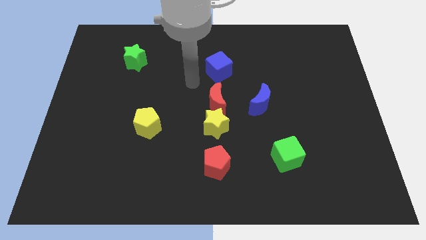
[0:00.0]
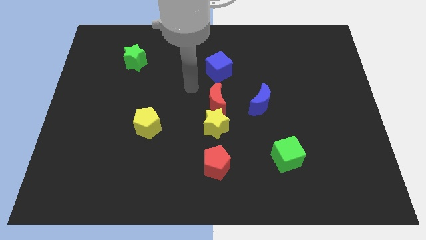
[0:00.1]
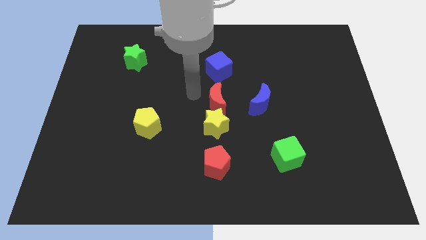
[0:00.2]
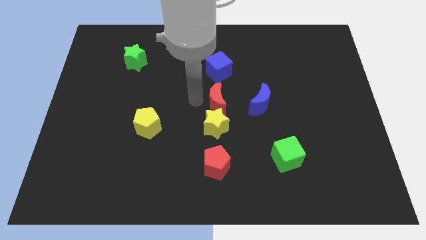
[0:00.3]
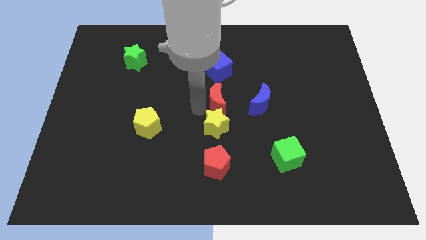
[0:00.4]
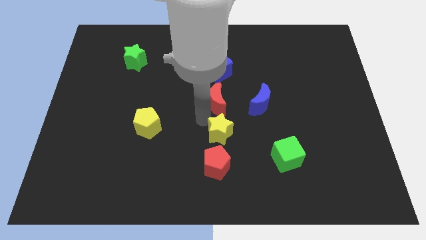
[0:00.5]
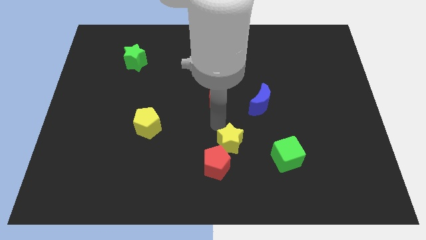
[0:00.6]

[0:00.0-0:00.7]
move the red moon away from the yellow star

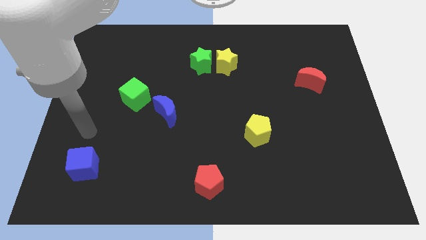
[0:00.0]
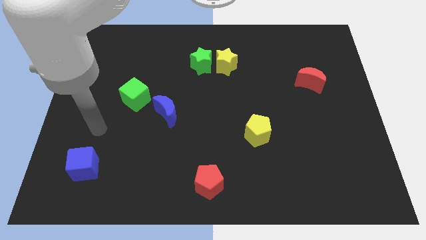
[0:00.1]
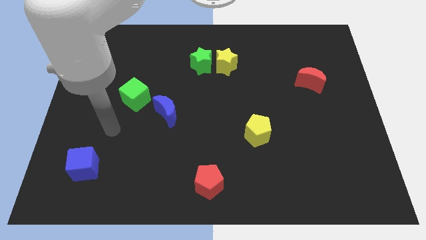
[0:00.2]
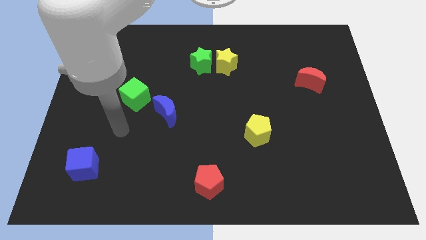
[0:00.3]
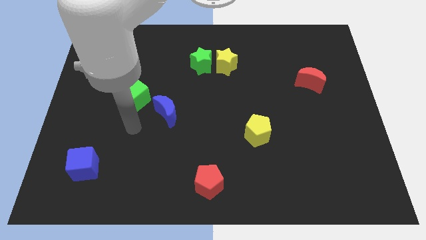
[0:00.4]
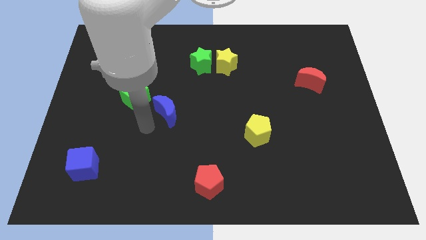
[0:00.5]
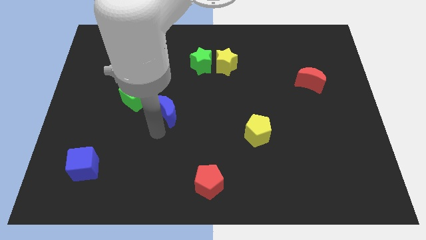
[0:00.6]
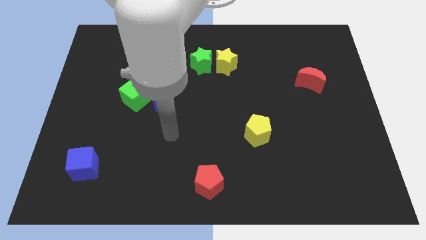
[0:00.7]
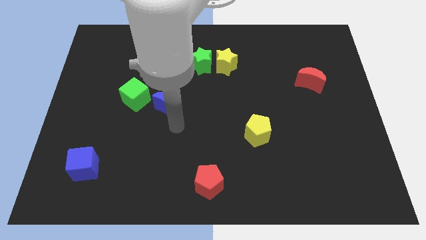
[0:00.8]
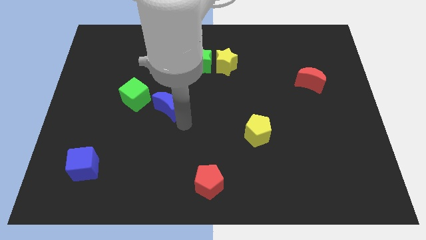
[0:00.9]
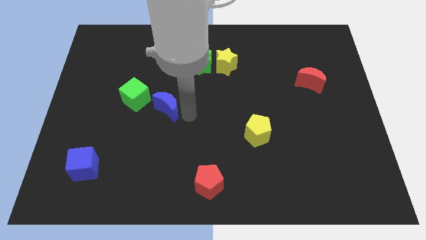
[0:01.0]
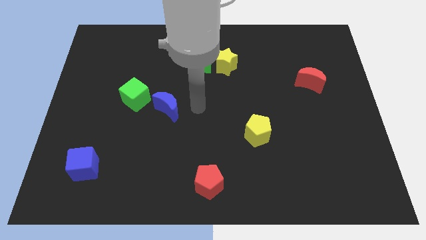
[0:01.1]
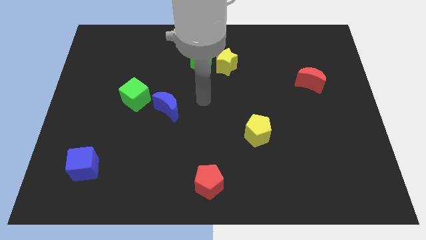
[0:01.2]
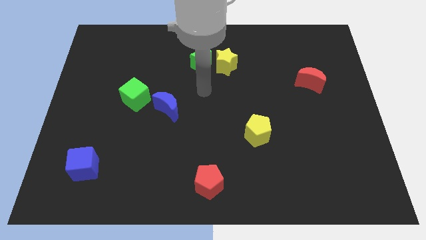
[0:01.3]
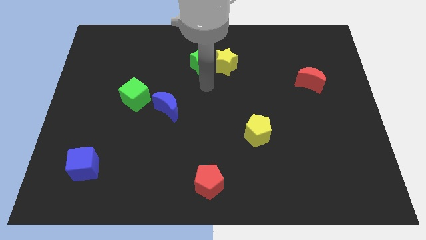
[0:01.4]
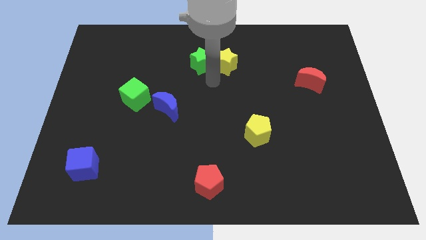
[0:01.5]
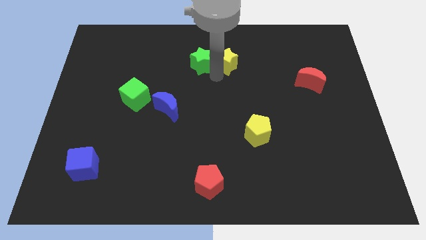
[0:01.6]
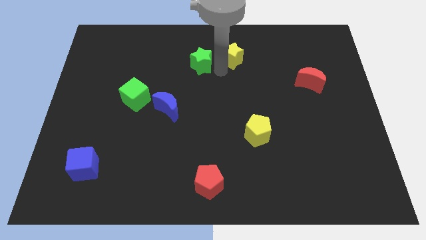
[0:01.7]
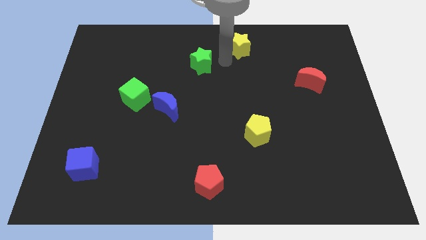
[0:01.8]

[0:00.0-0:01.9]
pull the green star apart from the yellow star

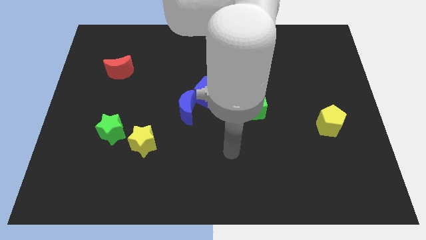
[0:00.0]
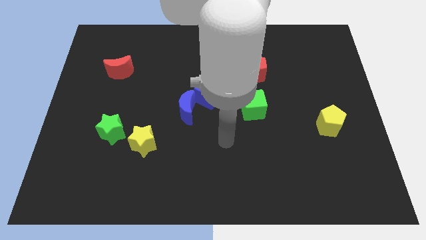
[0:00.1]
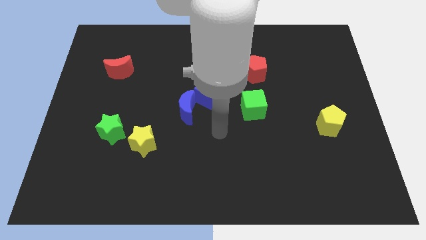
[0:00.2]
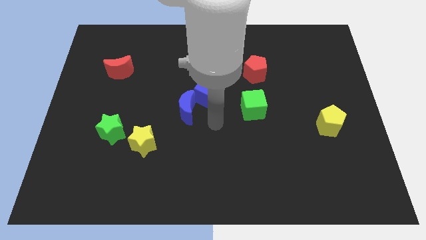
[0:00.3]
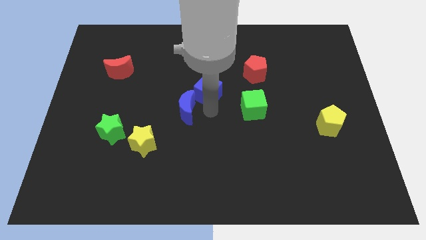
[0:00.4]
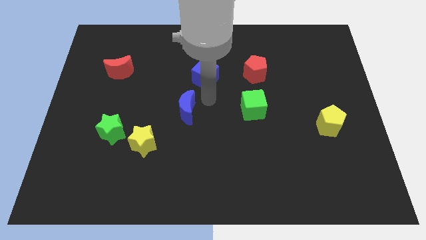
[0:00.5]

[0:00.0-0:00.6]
move the blue moon away from the blue cube

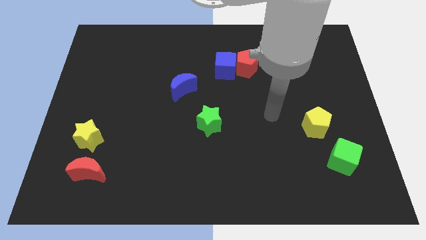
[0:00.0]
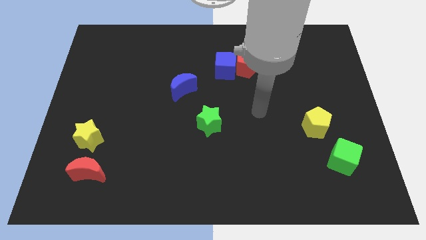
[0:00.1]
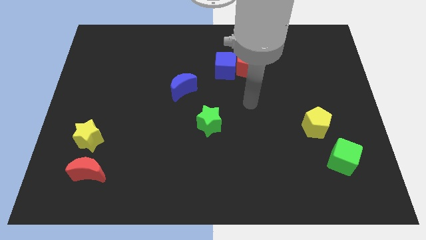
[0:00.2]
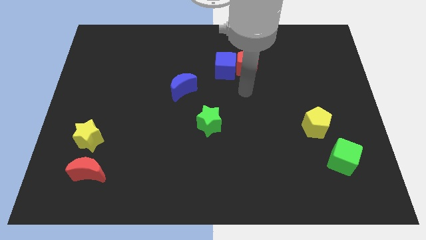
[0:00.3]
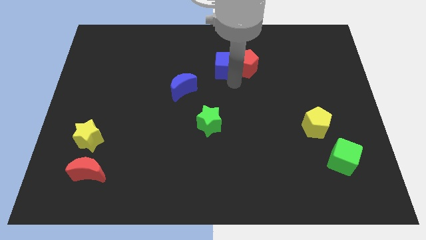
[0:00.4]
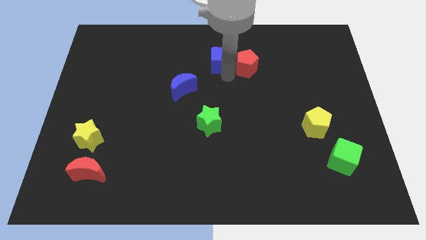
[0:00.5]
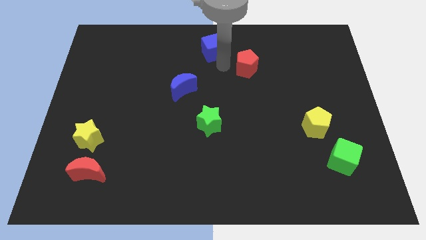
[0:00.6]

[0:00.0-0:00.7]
move the red pentagon away from the blue cube

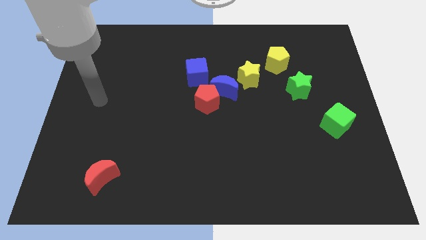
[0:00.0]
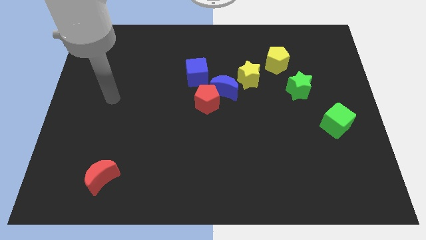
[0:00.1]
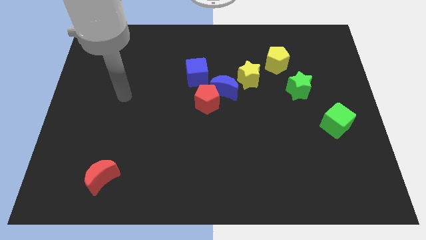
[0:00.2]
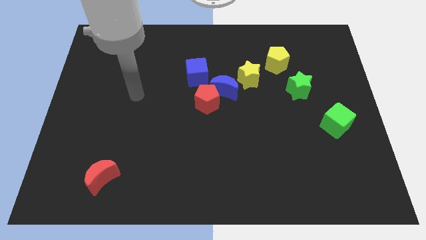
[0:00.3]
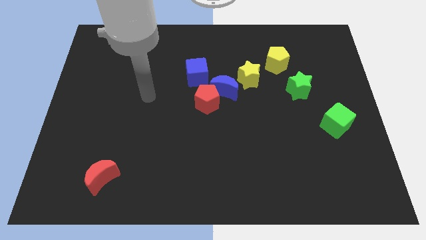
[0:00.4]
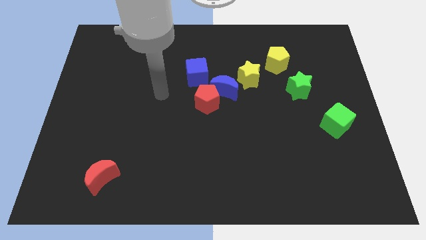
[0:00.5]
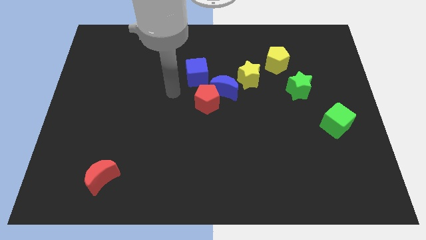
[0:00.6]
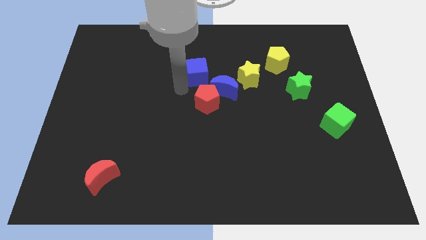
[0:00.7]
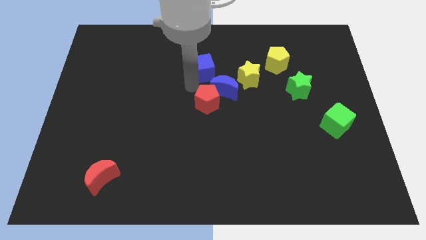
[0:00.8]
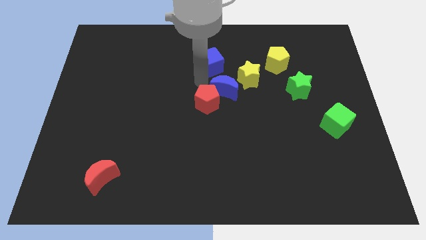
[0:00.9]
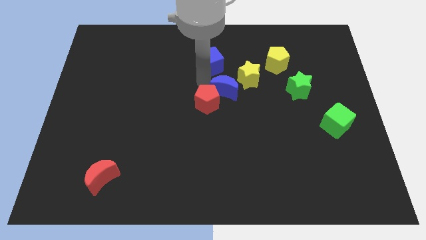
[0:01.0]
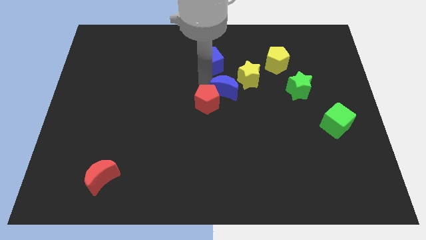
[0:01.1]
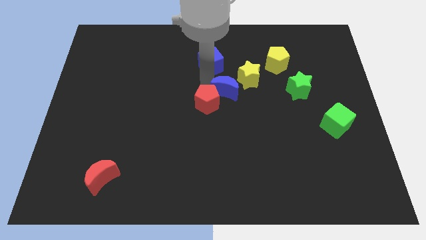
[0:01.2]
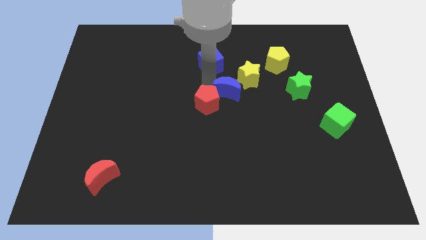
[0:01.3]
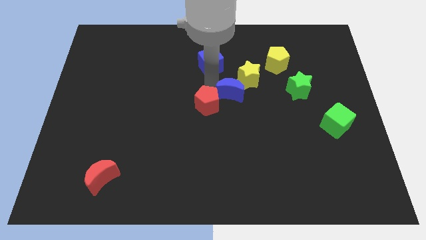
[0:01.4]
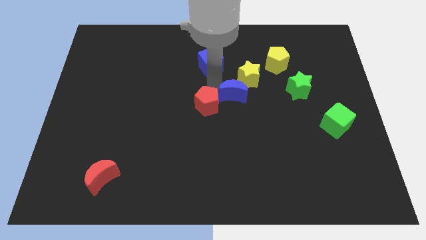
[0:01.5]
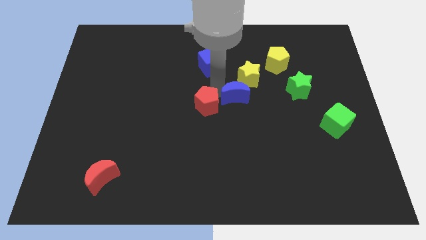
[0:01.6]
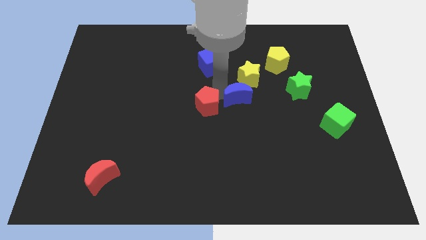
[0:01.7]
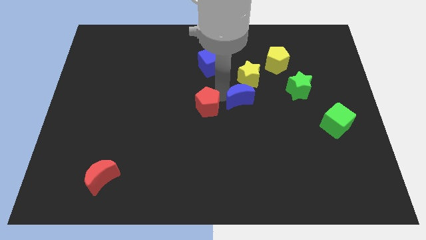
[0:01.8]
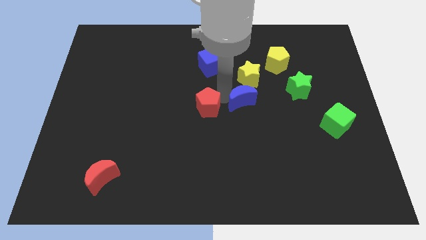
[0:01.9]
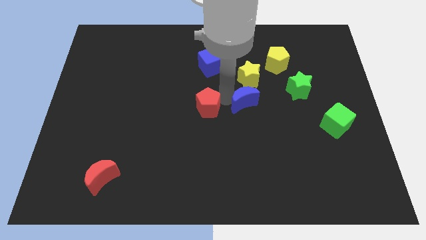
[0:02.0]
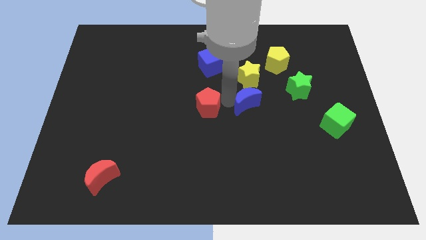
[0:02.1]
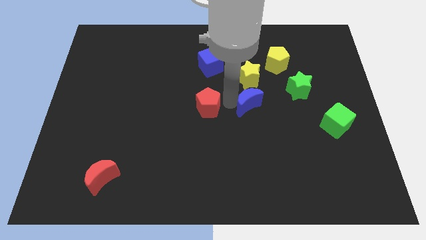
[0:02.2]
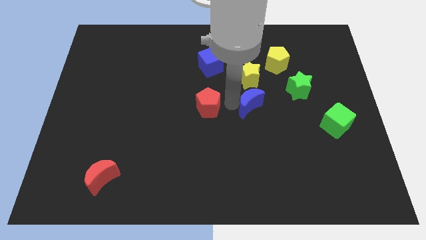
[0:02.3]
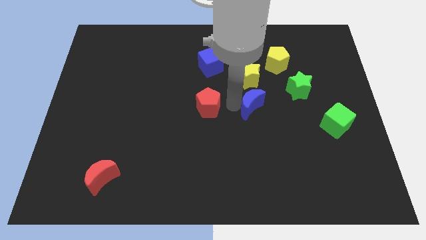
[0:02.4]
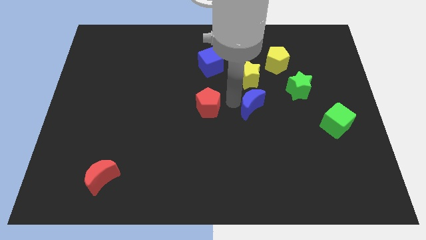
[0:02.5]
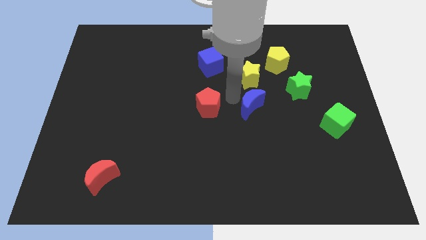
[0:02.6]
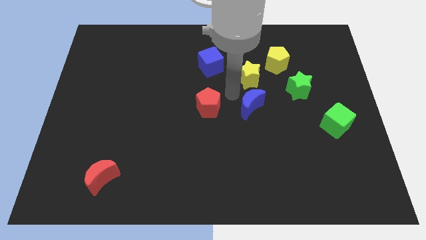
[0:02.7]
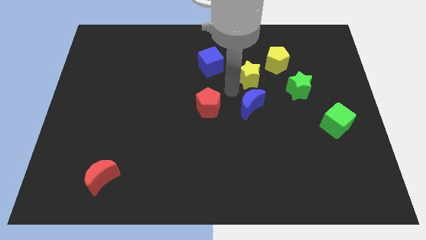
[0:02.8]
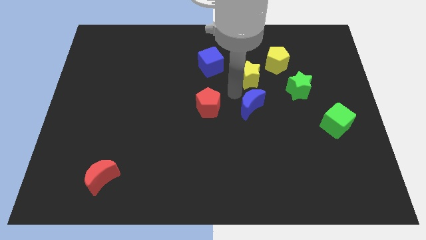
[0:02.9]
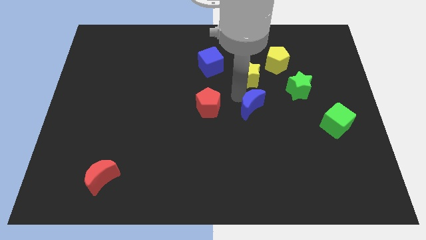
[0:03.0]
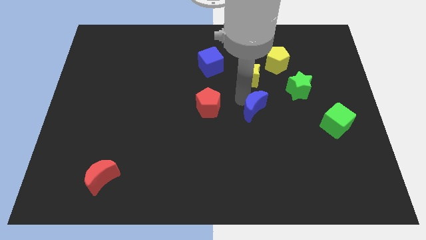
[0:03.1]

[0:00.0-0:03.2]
pull the blue moon apart from the red pentagon, yellow star, and blue cube

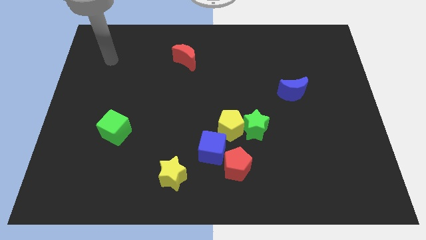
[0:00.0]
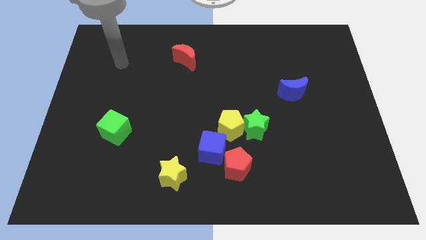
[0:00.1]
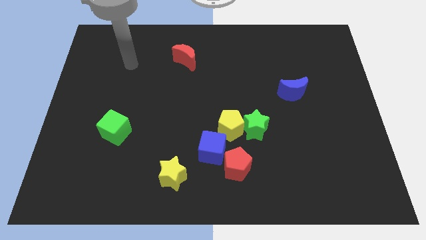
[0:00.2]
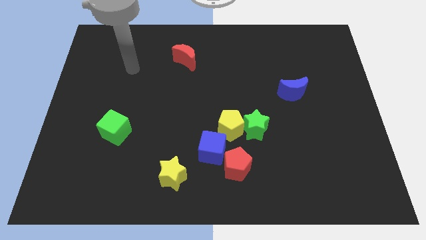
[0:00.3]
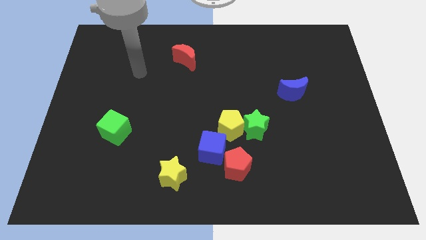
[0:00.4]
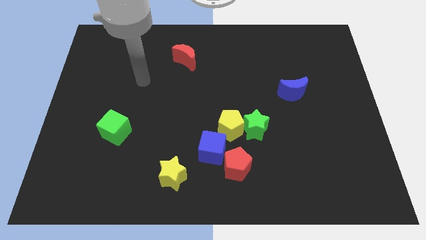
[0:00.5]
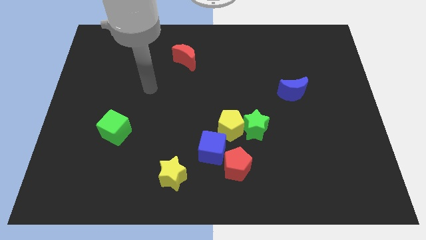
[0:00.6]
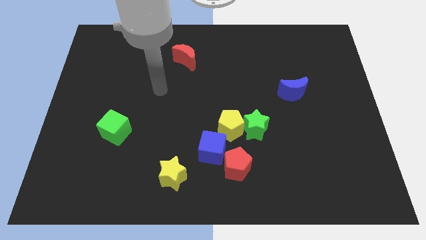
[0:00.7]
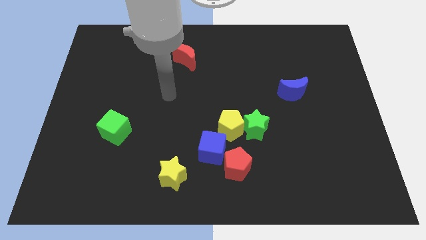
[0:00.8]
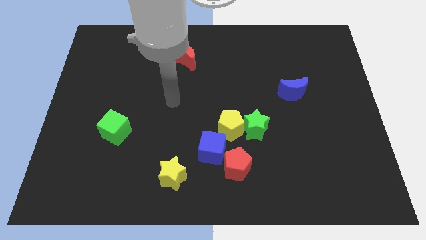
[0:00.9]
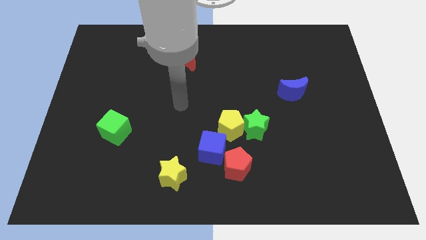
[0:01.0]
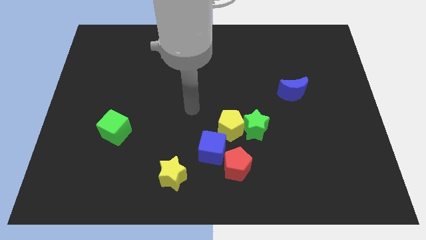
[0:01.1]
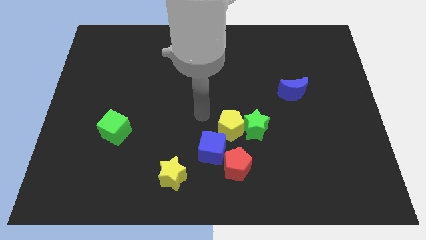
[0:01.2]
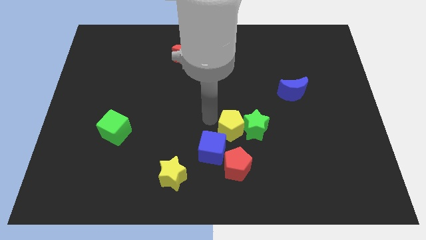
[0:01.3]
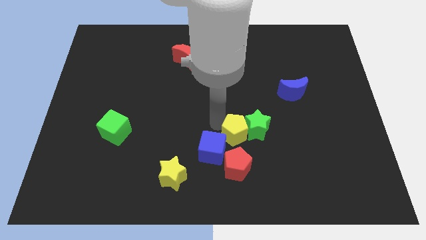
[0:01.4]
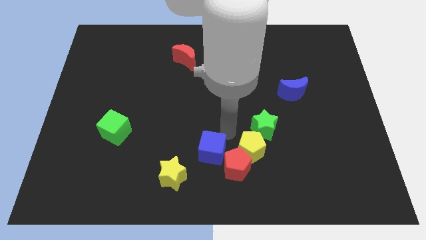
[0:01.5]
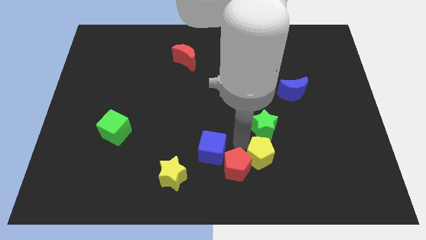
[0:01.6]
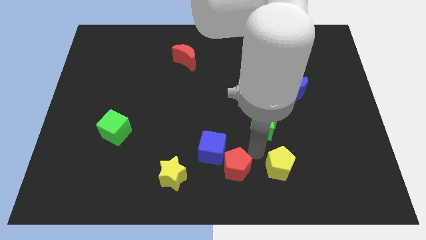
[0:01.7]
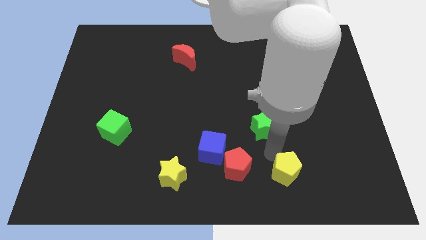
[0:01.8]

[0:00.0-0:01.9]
separate the green star from the yellow pentagon

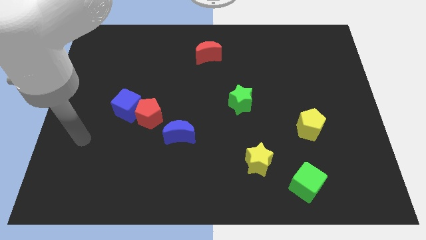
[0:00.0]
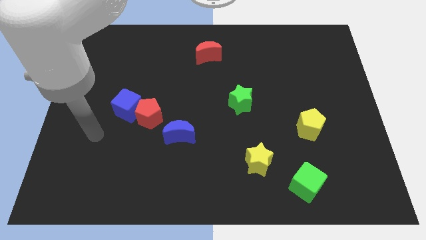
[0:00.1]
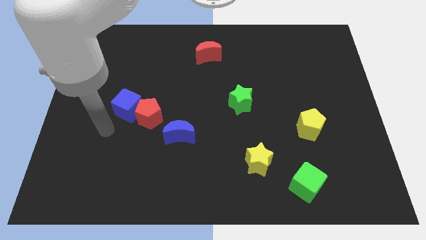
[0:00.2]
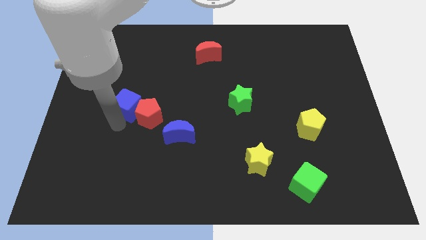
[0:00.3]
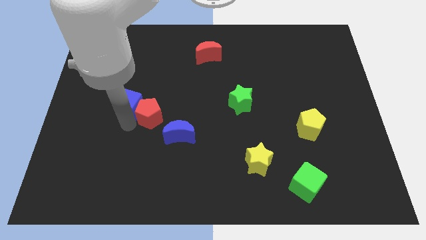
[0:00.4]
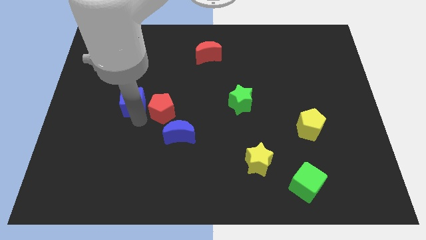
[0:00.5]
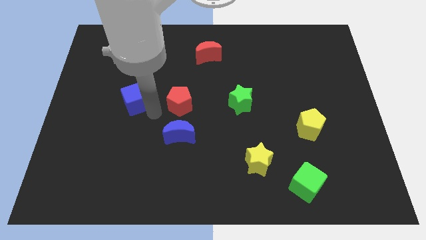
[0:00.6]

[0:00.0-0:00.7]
pull the blue cube apart from the red pentagon
